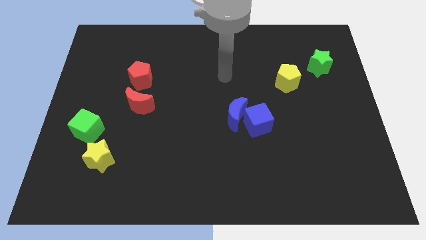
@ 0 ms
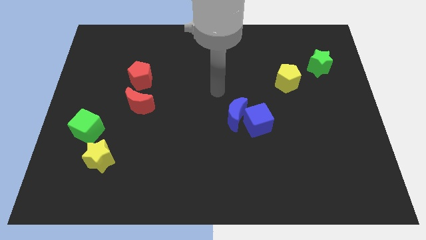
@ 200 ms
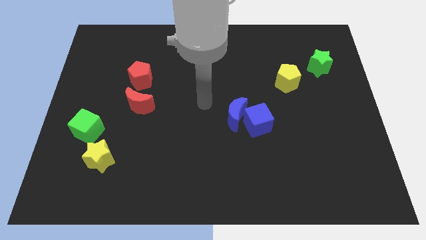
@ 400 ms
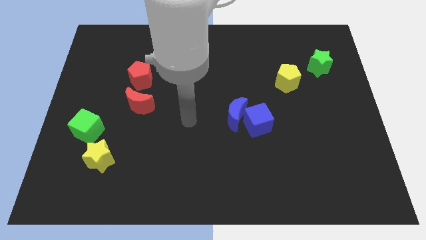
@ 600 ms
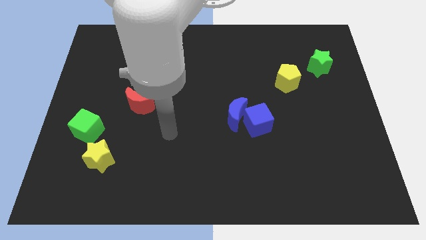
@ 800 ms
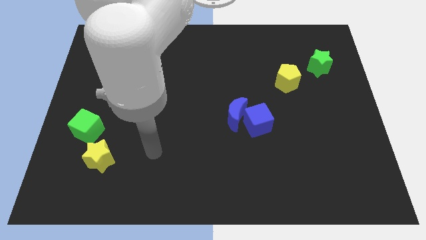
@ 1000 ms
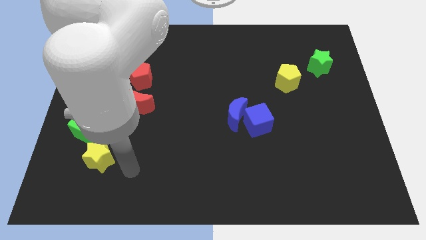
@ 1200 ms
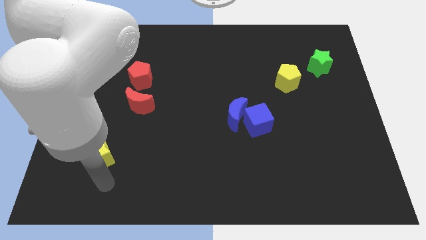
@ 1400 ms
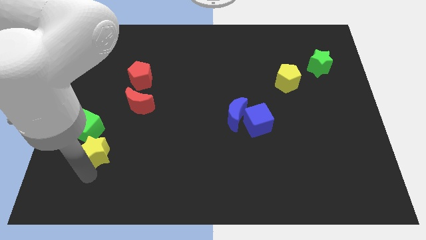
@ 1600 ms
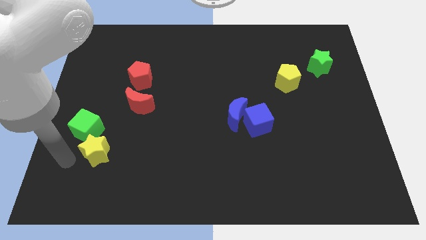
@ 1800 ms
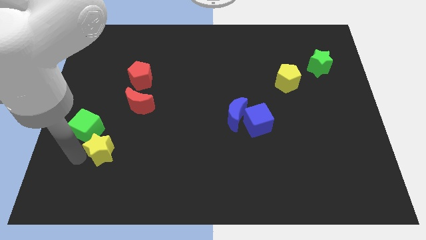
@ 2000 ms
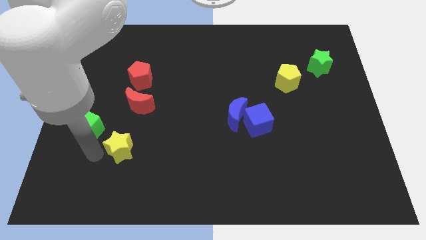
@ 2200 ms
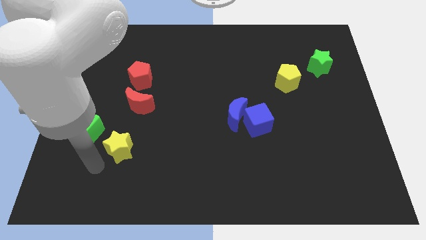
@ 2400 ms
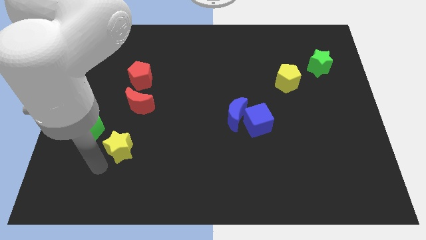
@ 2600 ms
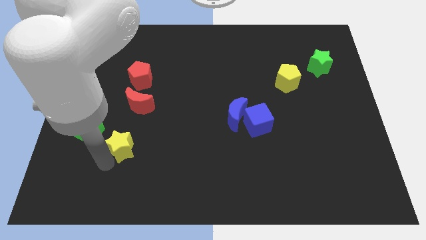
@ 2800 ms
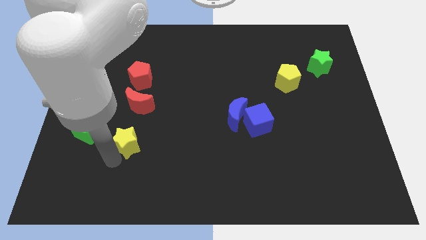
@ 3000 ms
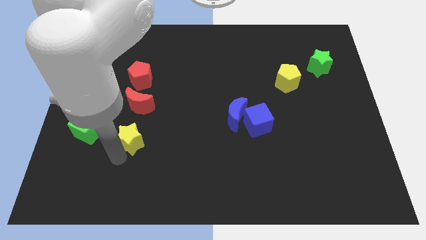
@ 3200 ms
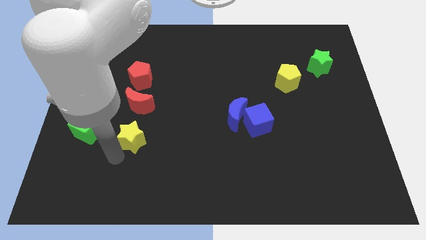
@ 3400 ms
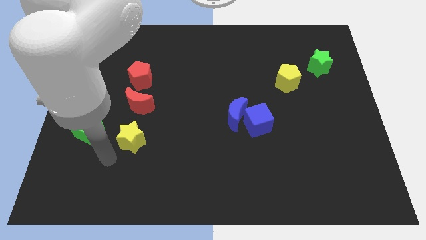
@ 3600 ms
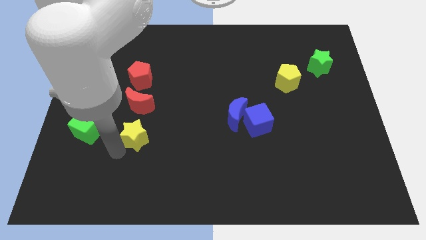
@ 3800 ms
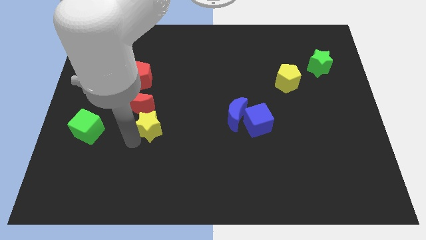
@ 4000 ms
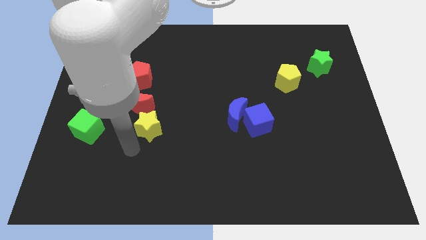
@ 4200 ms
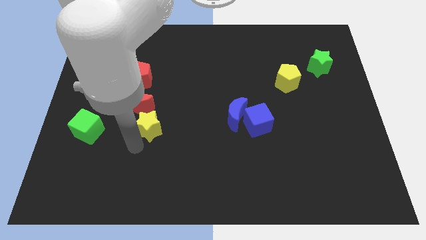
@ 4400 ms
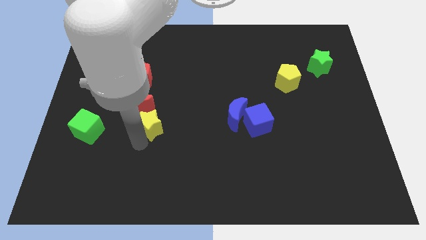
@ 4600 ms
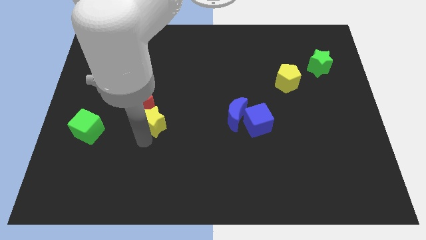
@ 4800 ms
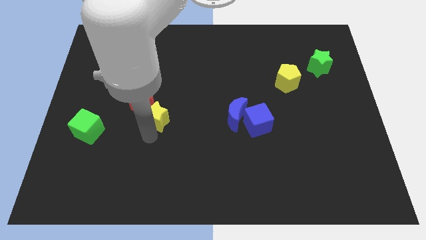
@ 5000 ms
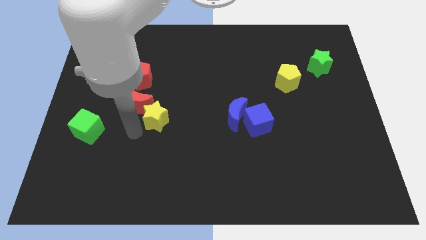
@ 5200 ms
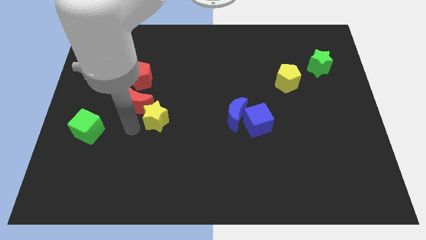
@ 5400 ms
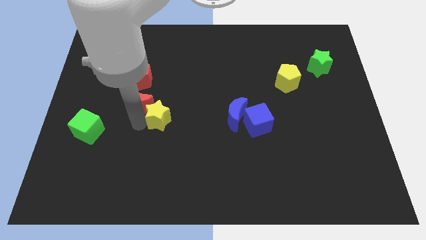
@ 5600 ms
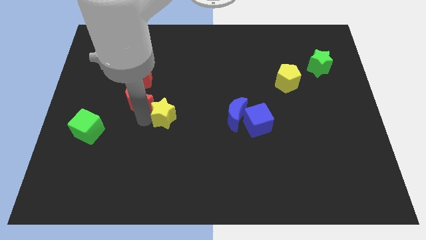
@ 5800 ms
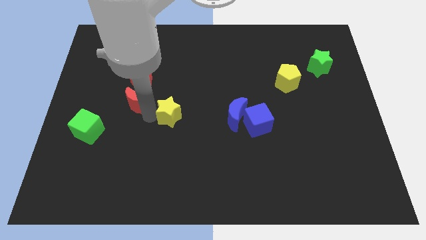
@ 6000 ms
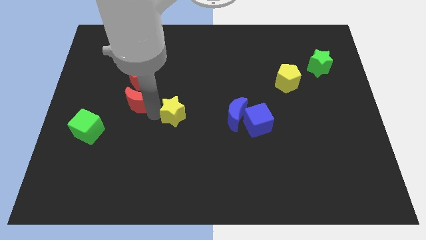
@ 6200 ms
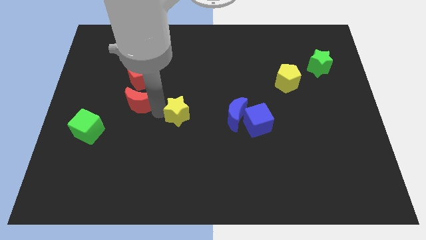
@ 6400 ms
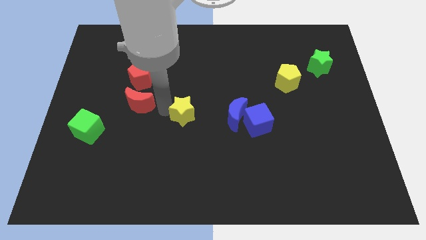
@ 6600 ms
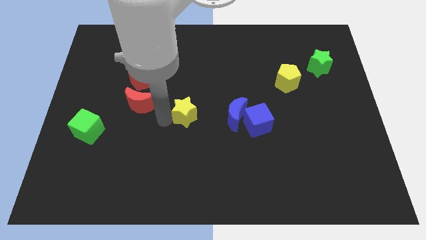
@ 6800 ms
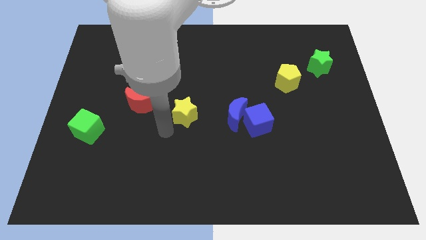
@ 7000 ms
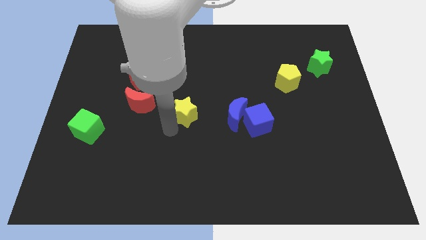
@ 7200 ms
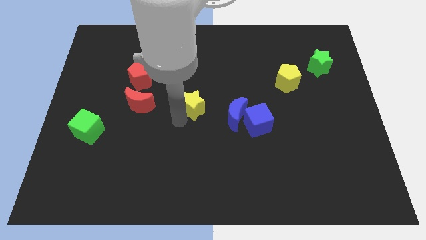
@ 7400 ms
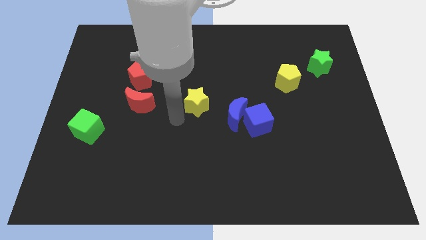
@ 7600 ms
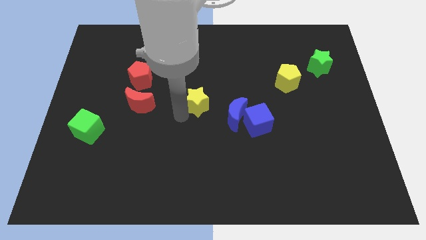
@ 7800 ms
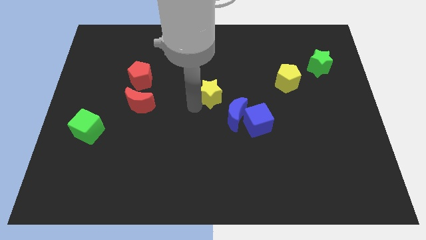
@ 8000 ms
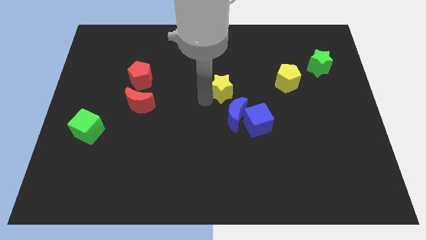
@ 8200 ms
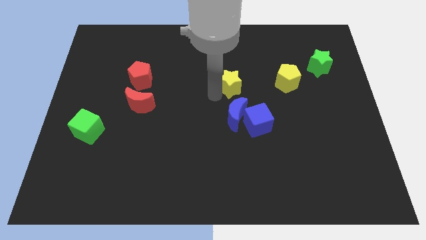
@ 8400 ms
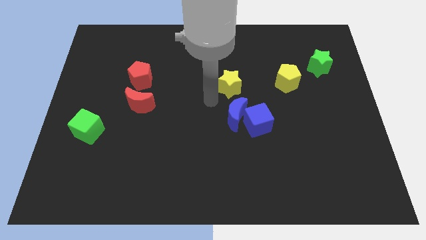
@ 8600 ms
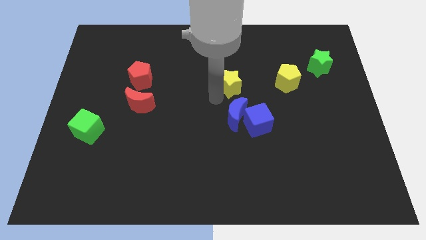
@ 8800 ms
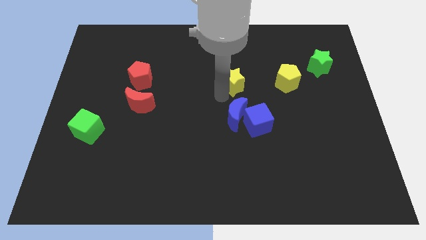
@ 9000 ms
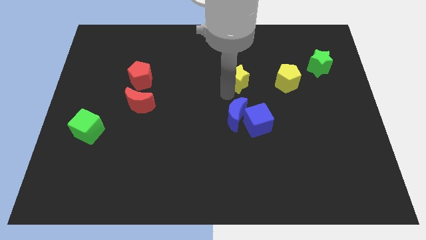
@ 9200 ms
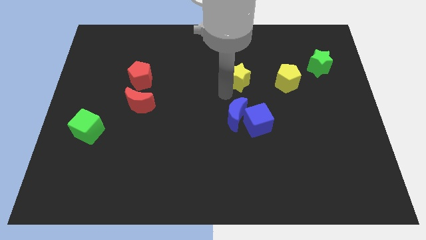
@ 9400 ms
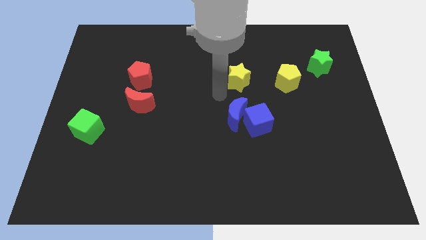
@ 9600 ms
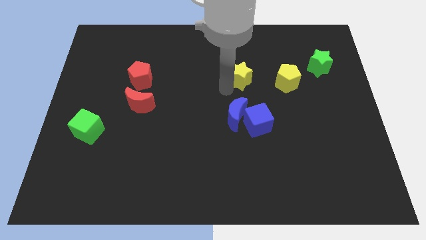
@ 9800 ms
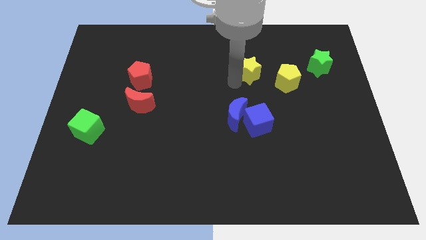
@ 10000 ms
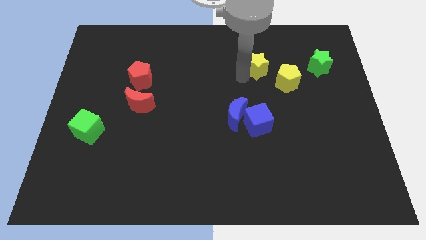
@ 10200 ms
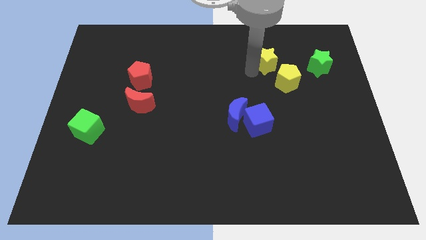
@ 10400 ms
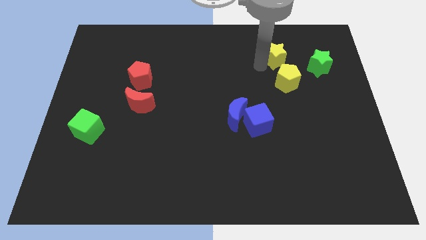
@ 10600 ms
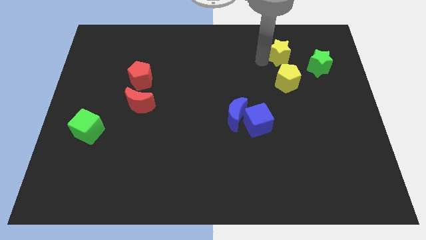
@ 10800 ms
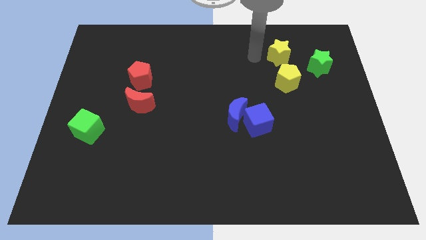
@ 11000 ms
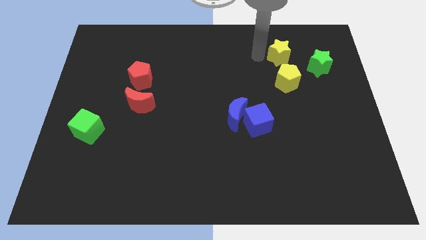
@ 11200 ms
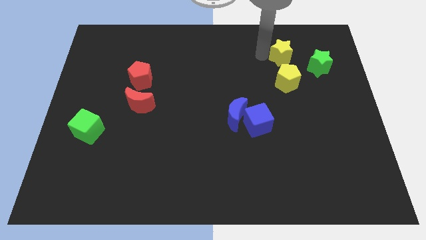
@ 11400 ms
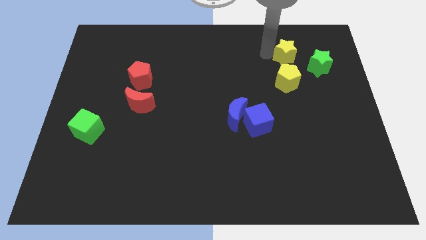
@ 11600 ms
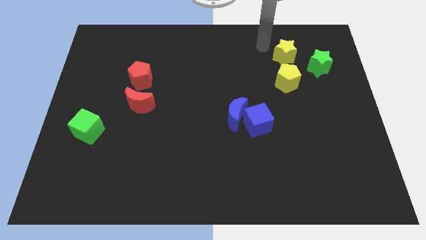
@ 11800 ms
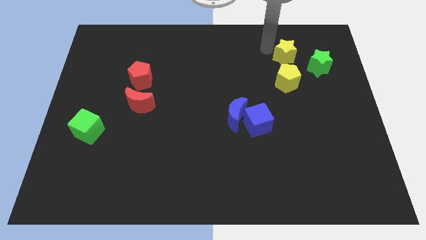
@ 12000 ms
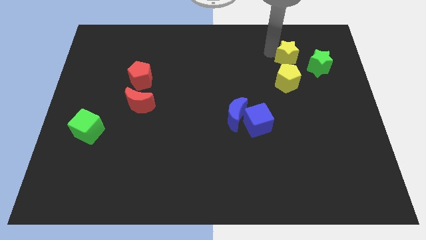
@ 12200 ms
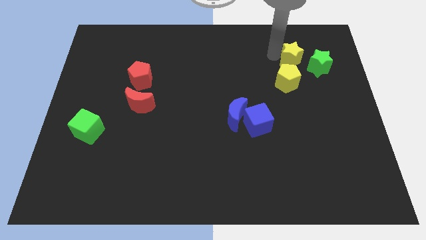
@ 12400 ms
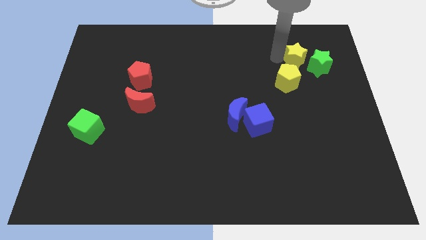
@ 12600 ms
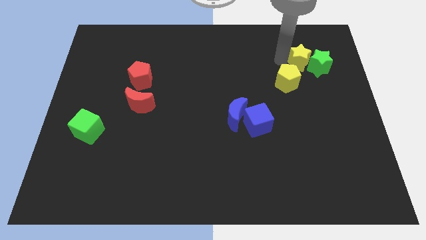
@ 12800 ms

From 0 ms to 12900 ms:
move the yellow star close to the green star

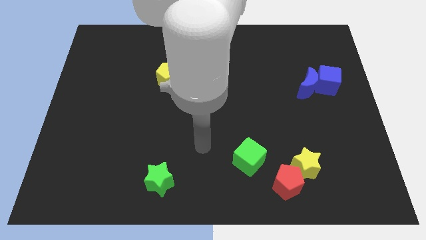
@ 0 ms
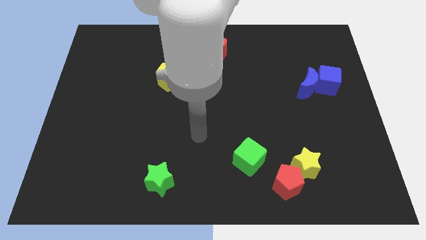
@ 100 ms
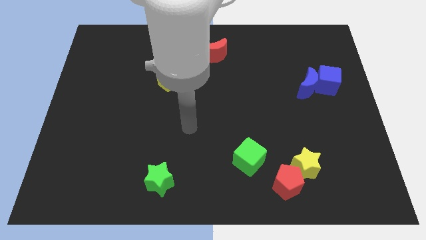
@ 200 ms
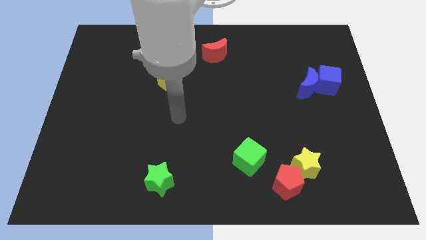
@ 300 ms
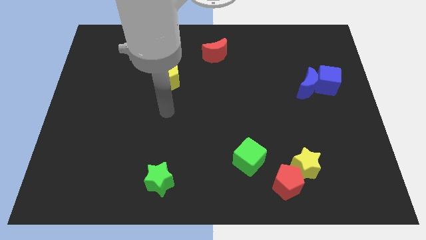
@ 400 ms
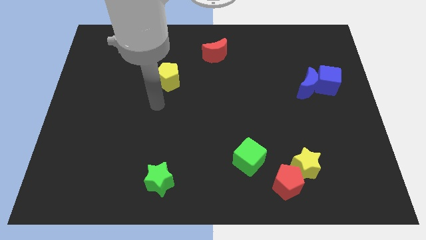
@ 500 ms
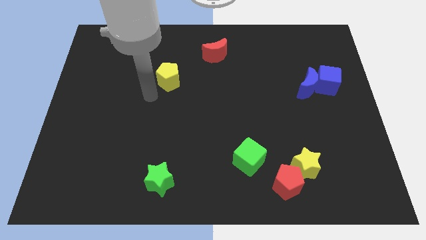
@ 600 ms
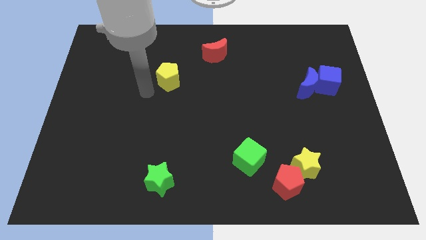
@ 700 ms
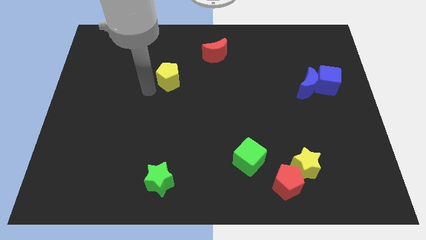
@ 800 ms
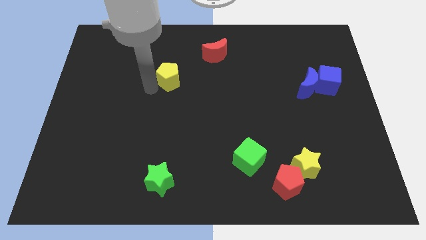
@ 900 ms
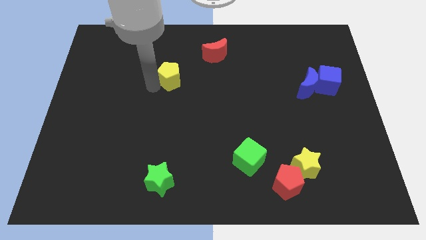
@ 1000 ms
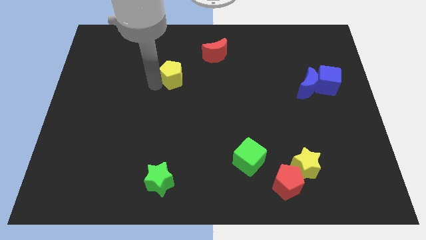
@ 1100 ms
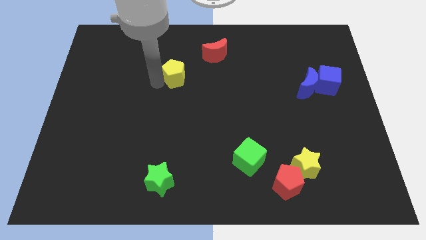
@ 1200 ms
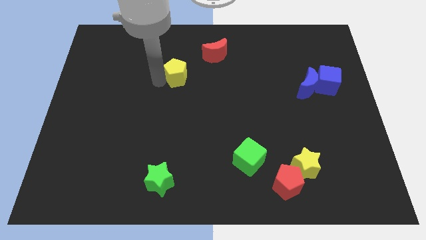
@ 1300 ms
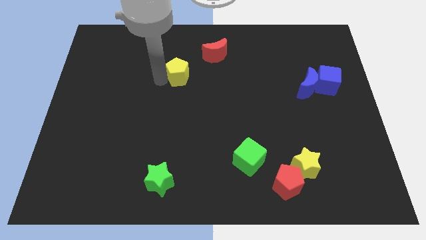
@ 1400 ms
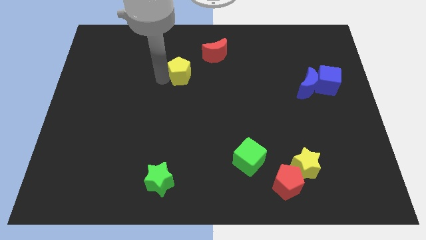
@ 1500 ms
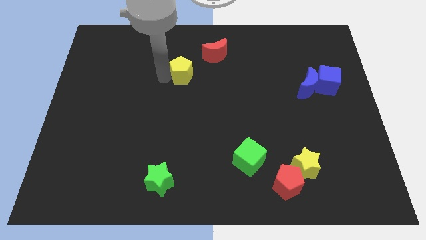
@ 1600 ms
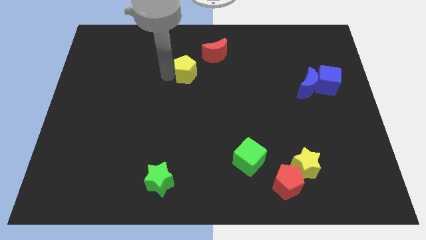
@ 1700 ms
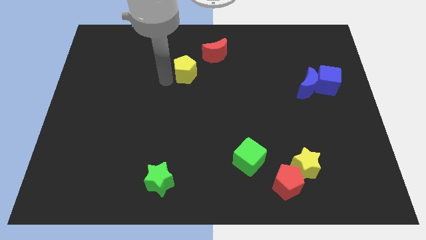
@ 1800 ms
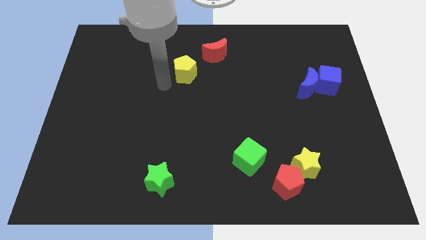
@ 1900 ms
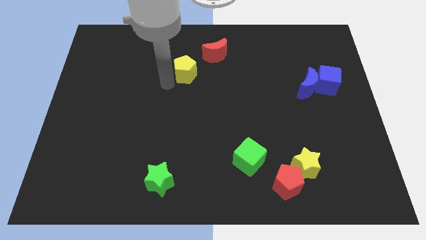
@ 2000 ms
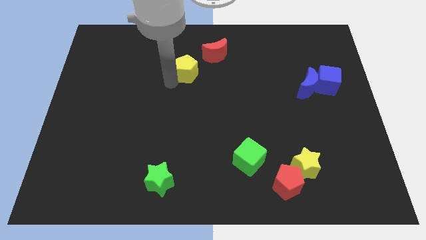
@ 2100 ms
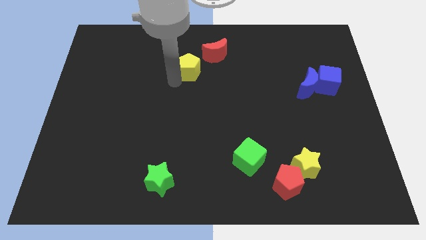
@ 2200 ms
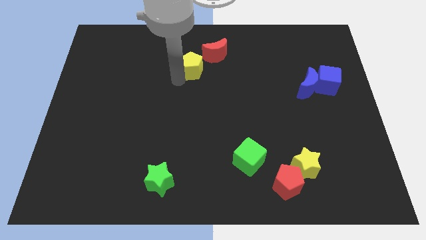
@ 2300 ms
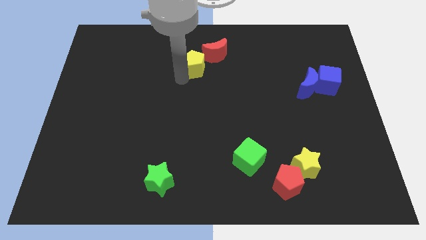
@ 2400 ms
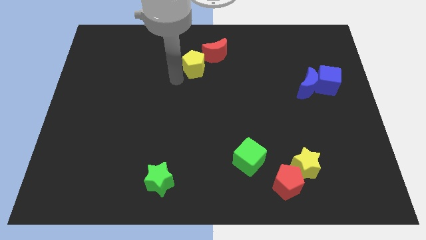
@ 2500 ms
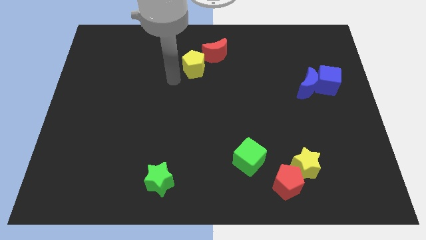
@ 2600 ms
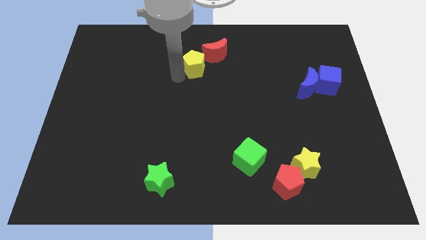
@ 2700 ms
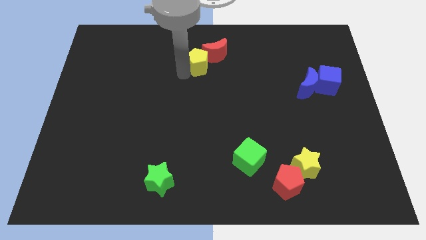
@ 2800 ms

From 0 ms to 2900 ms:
move the yellow pentagon towards the red moon
